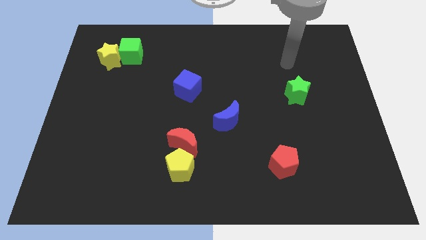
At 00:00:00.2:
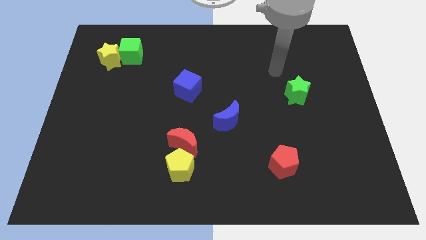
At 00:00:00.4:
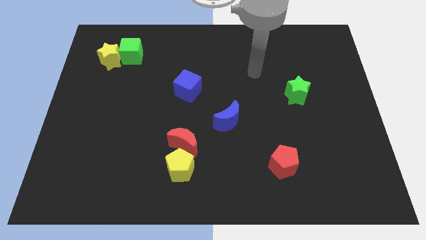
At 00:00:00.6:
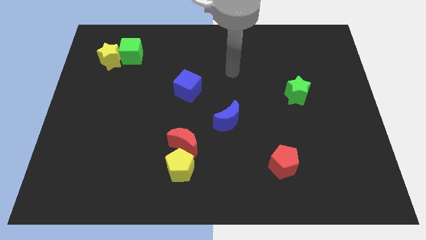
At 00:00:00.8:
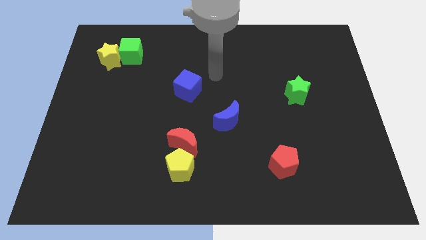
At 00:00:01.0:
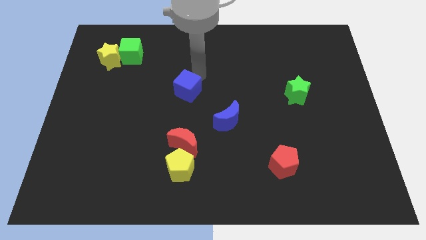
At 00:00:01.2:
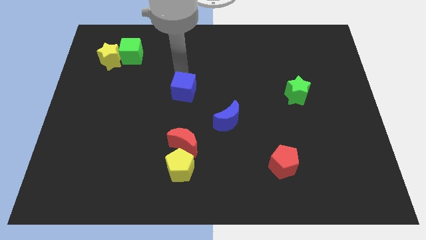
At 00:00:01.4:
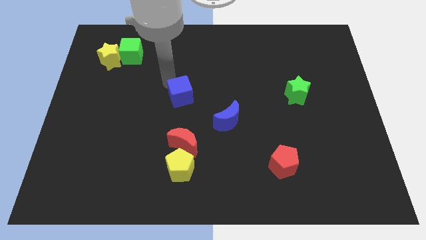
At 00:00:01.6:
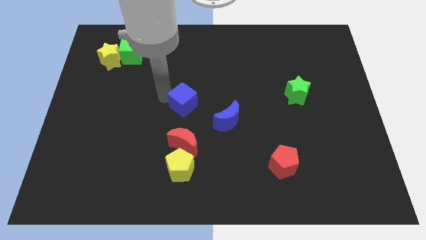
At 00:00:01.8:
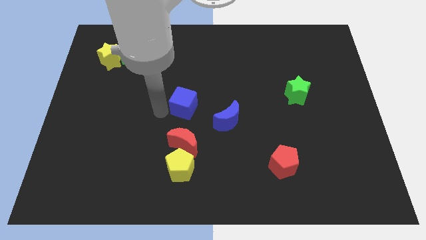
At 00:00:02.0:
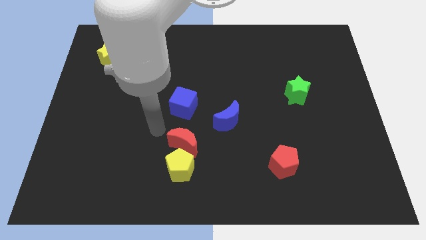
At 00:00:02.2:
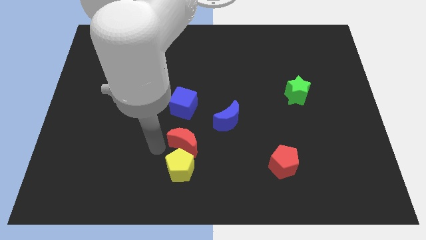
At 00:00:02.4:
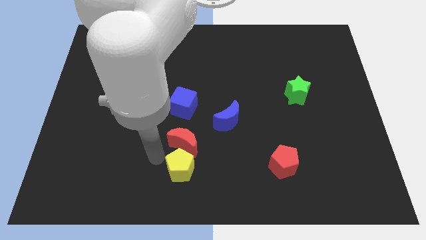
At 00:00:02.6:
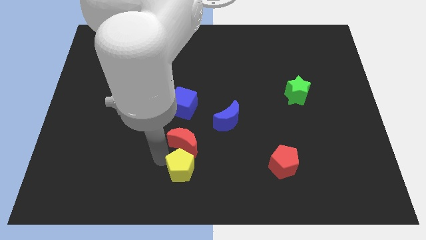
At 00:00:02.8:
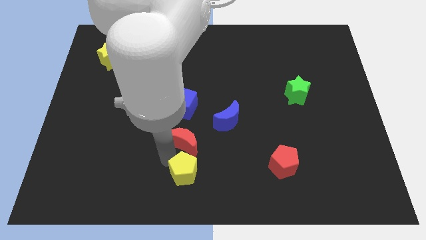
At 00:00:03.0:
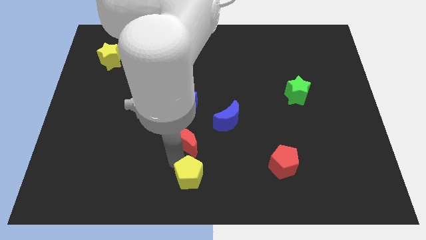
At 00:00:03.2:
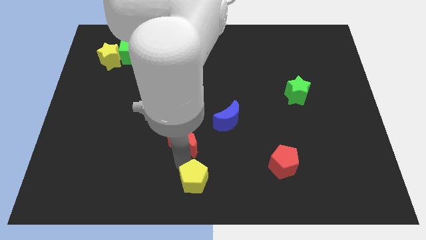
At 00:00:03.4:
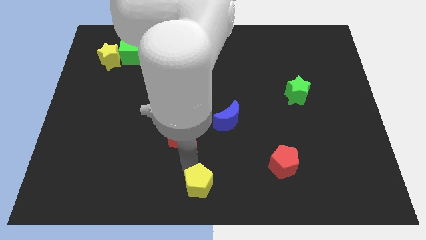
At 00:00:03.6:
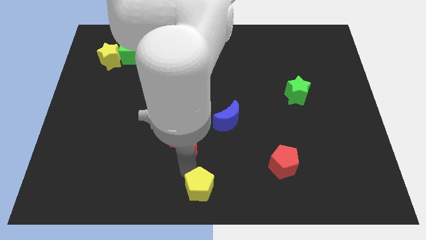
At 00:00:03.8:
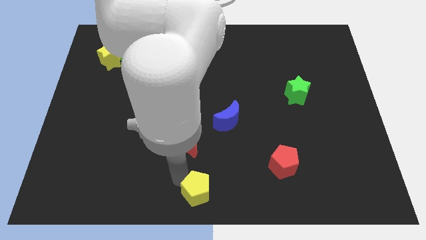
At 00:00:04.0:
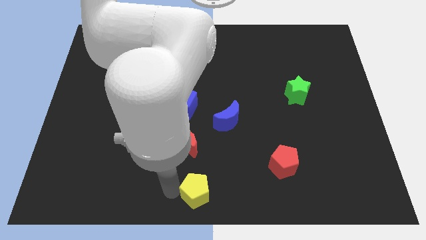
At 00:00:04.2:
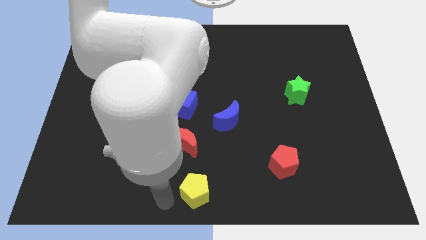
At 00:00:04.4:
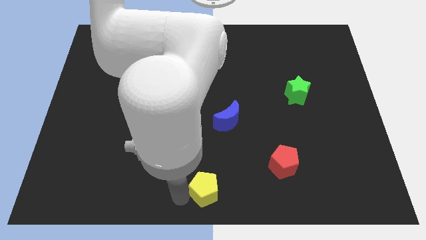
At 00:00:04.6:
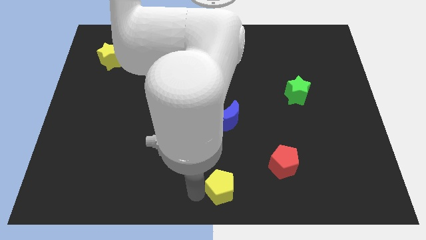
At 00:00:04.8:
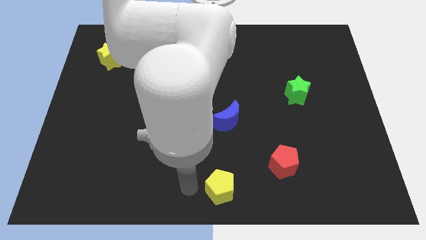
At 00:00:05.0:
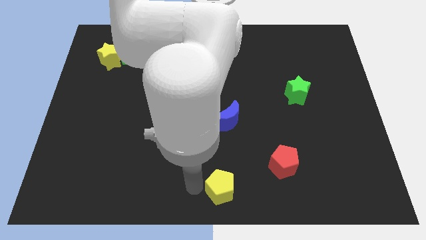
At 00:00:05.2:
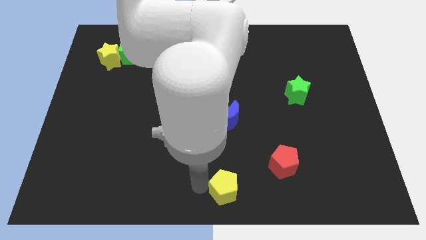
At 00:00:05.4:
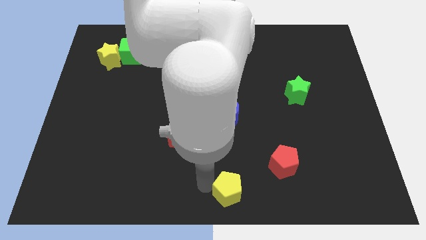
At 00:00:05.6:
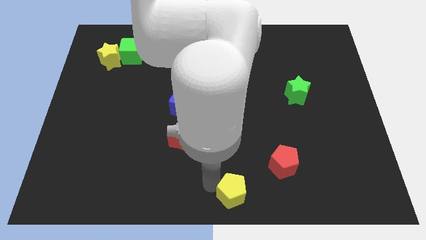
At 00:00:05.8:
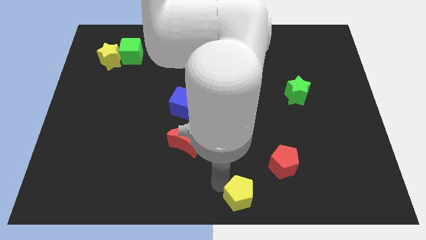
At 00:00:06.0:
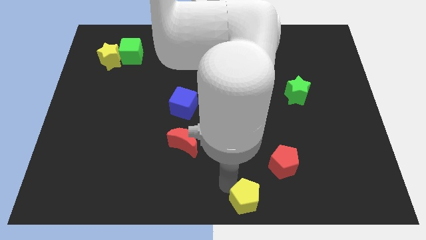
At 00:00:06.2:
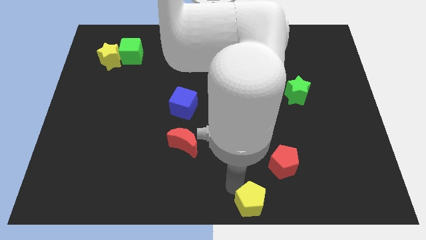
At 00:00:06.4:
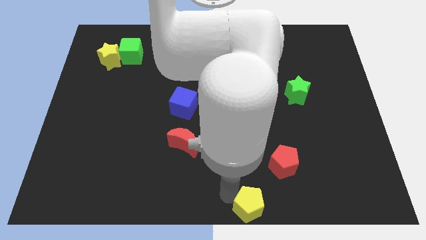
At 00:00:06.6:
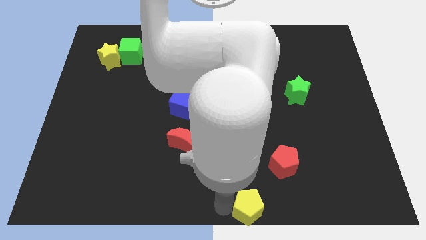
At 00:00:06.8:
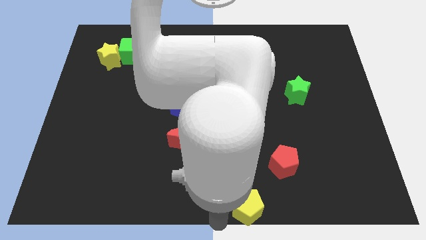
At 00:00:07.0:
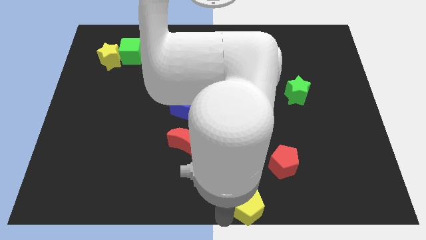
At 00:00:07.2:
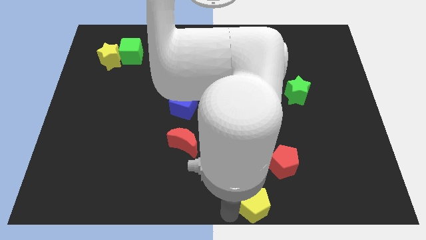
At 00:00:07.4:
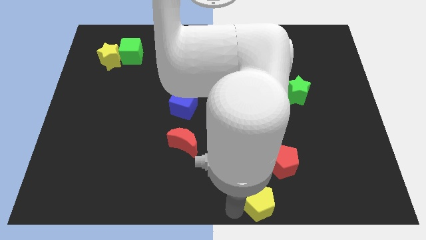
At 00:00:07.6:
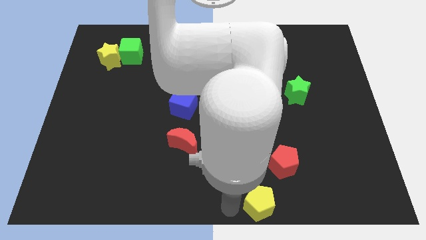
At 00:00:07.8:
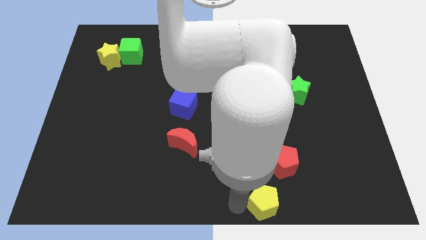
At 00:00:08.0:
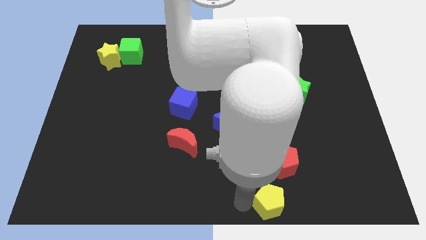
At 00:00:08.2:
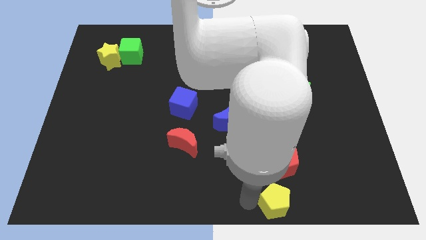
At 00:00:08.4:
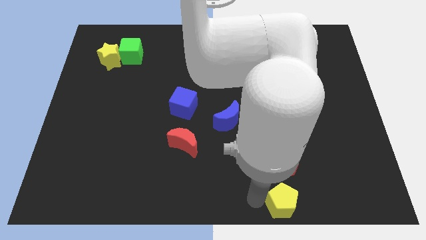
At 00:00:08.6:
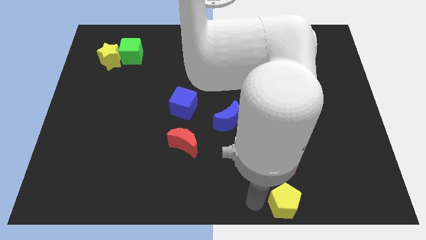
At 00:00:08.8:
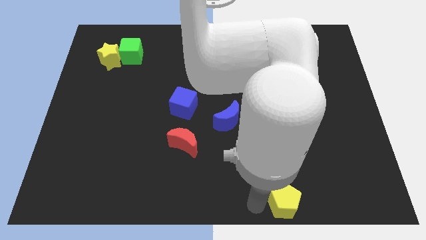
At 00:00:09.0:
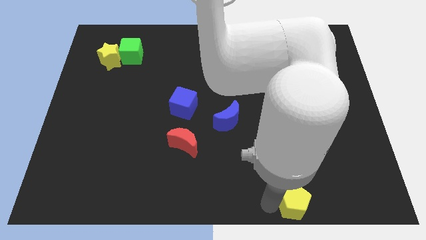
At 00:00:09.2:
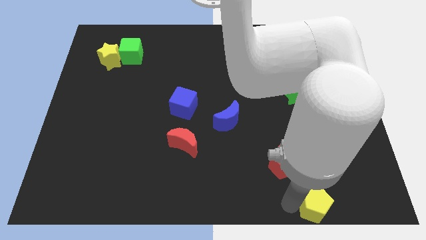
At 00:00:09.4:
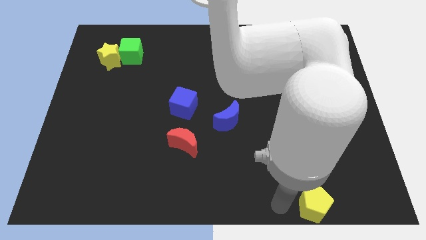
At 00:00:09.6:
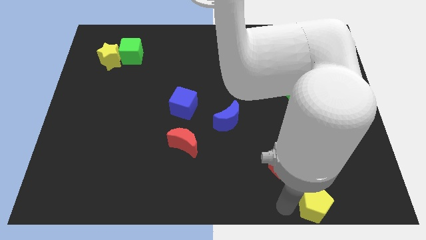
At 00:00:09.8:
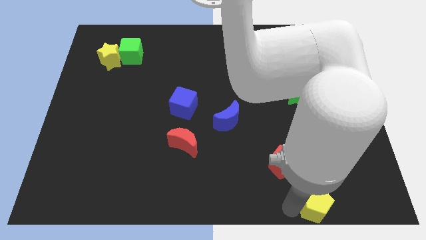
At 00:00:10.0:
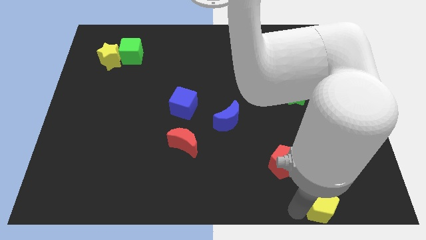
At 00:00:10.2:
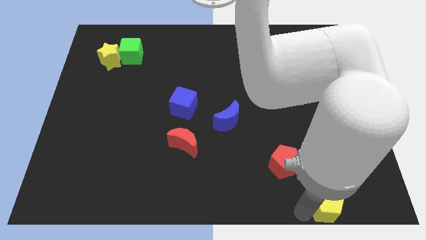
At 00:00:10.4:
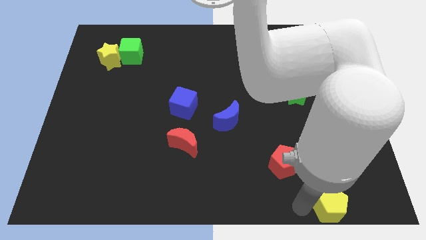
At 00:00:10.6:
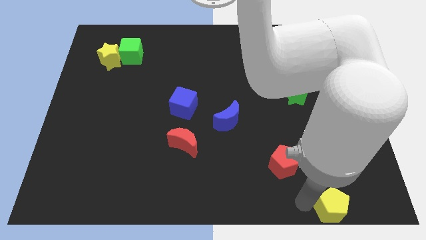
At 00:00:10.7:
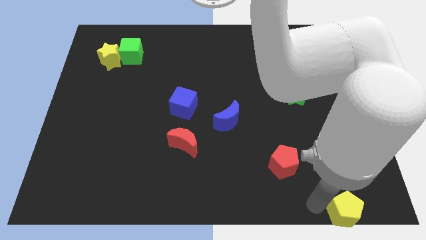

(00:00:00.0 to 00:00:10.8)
push the yellow pentagon to the lower right corner
